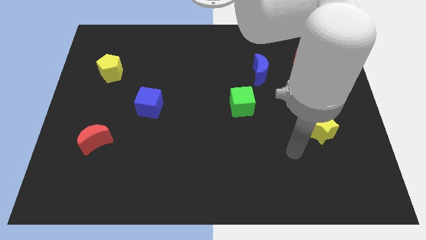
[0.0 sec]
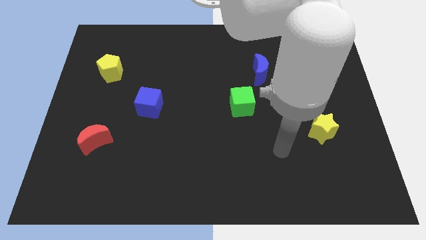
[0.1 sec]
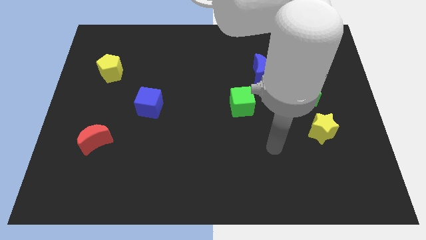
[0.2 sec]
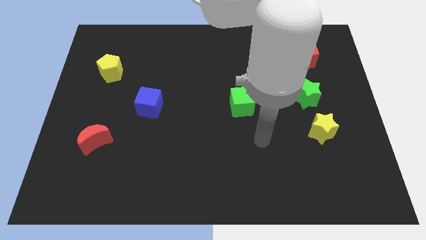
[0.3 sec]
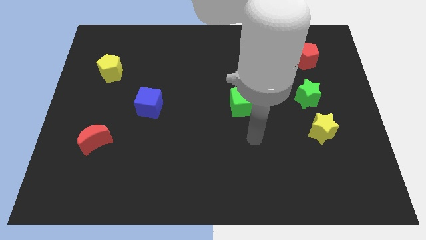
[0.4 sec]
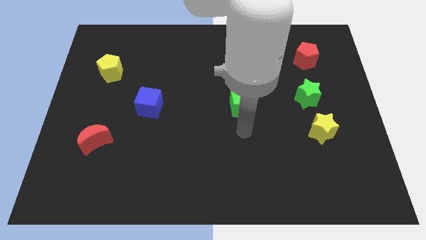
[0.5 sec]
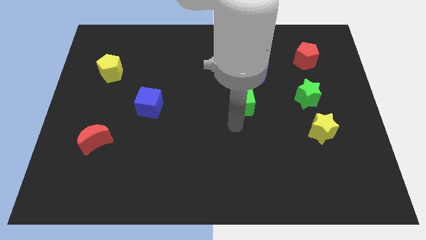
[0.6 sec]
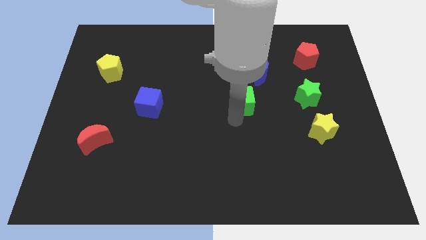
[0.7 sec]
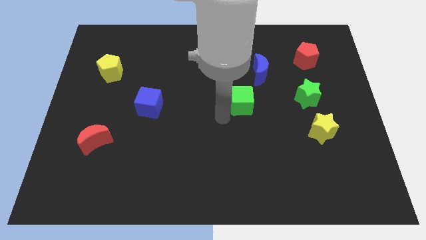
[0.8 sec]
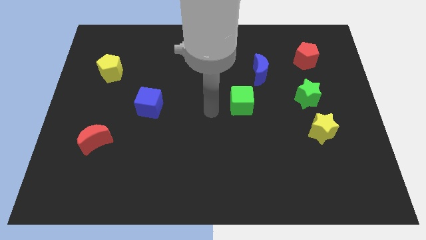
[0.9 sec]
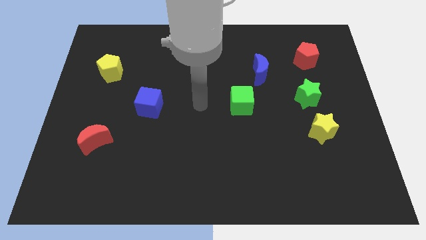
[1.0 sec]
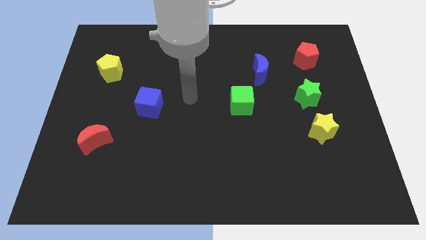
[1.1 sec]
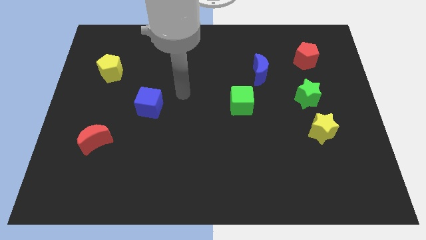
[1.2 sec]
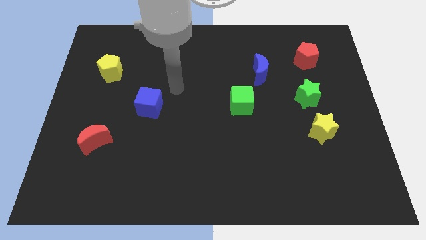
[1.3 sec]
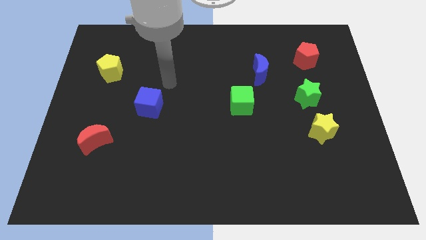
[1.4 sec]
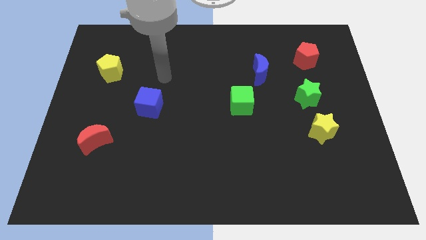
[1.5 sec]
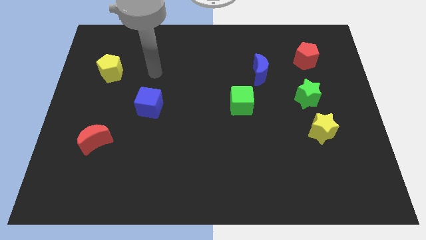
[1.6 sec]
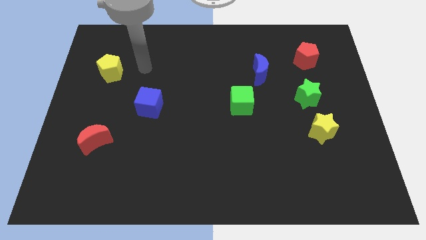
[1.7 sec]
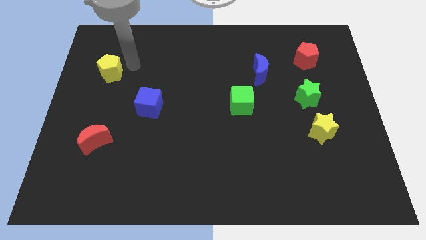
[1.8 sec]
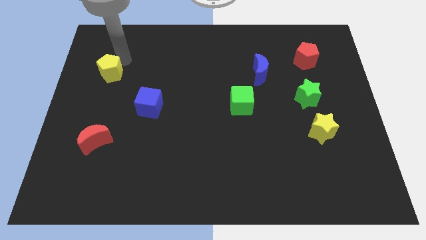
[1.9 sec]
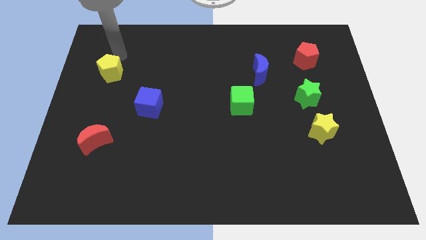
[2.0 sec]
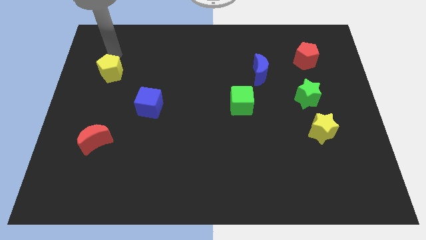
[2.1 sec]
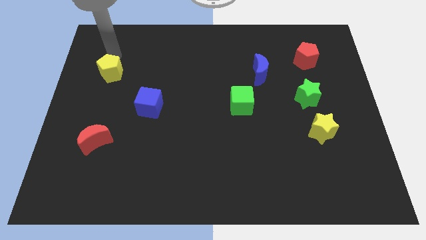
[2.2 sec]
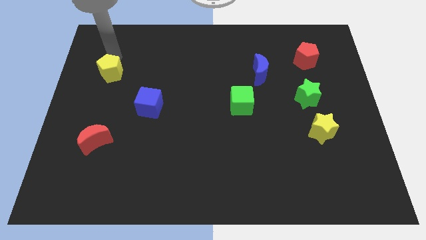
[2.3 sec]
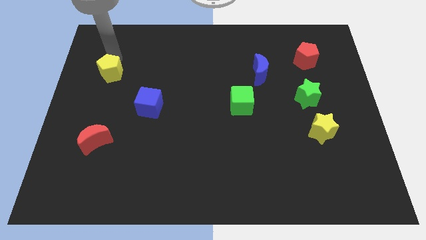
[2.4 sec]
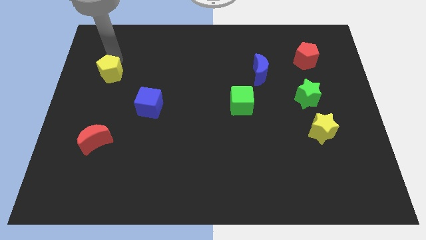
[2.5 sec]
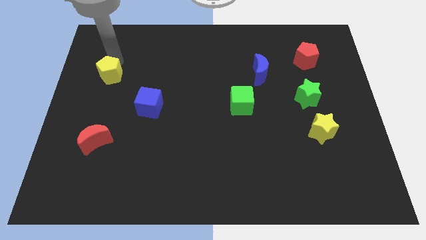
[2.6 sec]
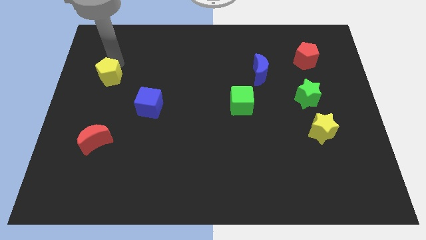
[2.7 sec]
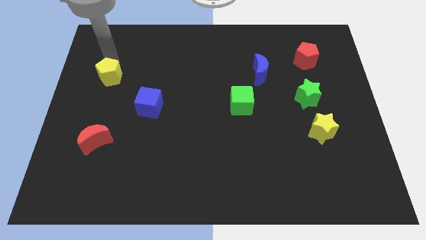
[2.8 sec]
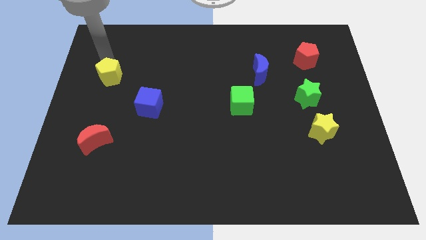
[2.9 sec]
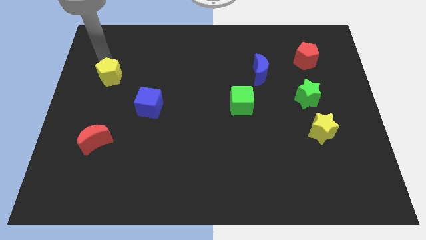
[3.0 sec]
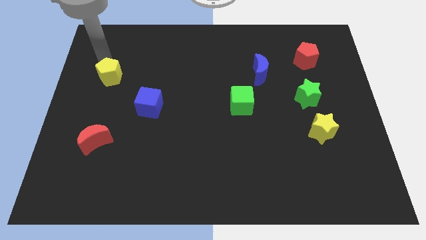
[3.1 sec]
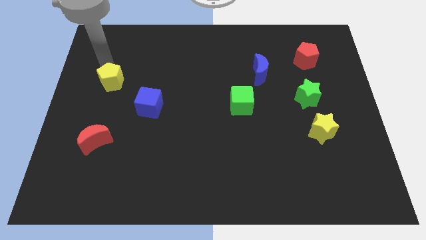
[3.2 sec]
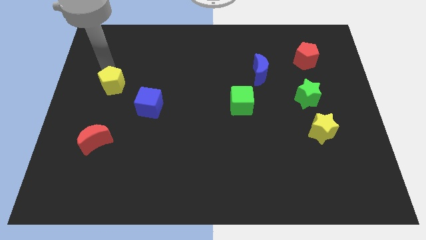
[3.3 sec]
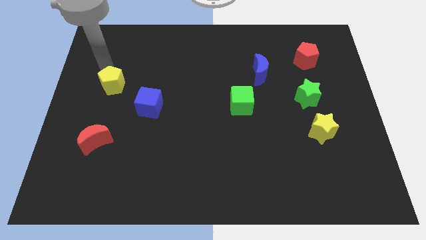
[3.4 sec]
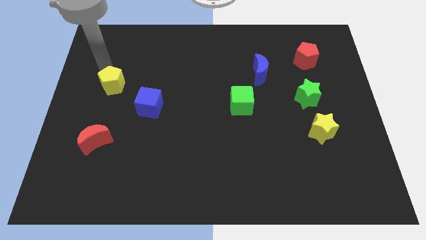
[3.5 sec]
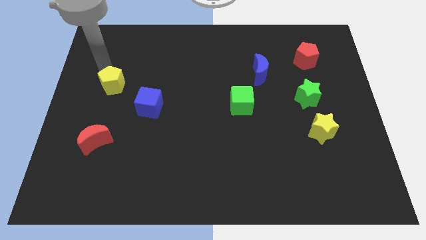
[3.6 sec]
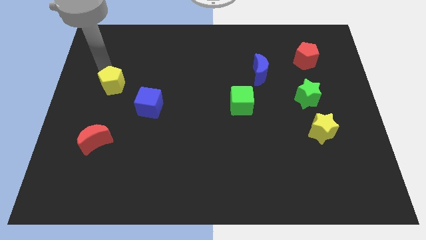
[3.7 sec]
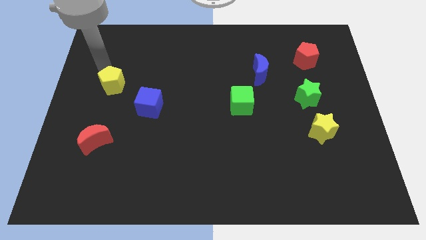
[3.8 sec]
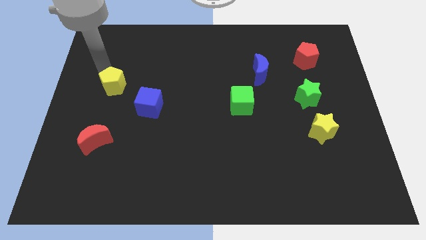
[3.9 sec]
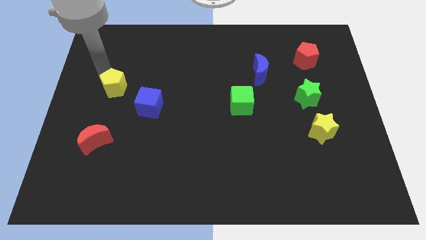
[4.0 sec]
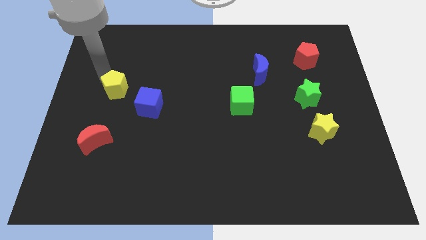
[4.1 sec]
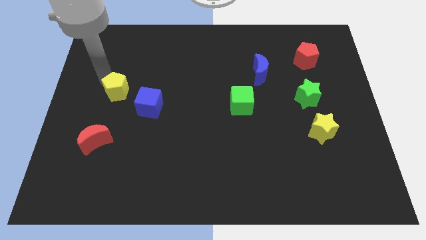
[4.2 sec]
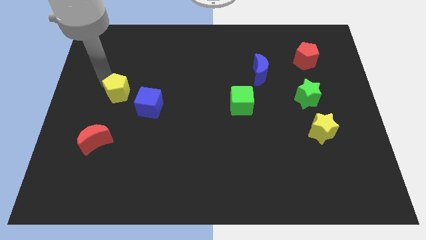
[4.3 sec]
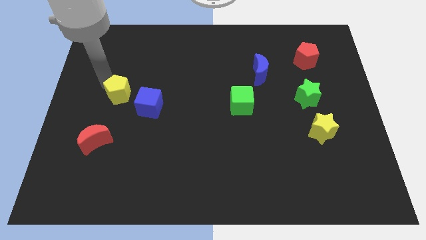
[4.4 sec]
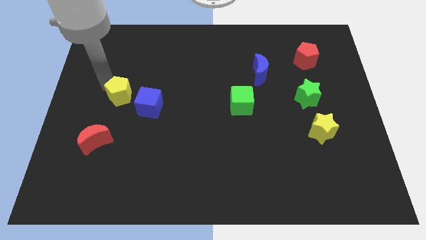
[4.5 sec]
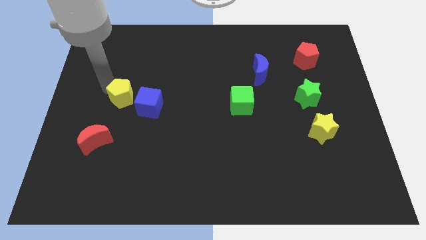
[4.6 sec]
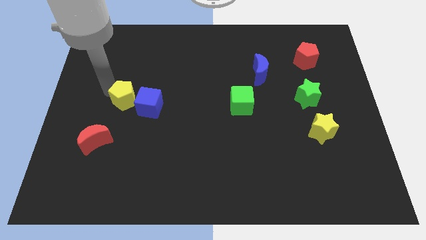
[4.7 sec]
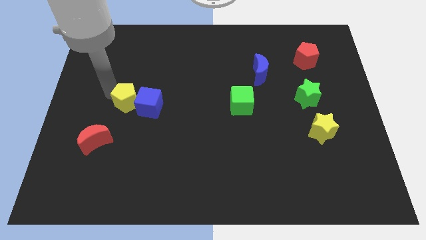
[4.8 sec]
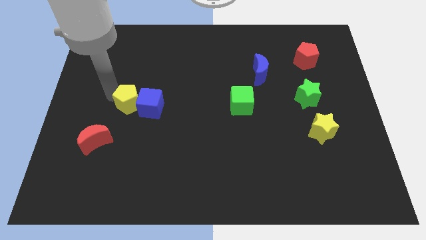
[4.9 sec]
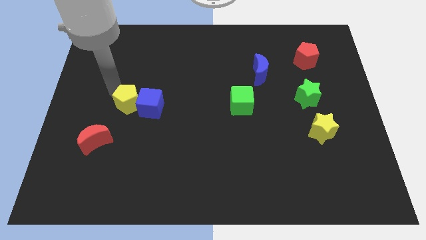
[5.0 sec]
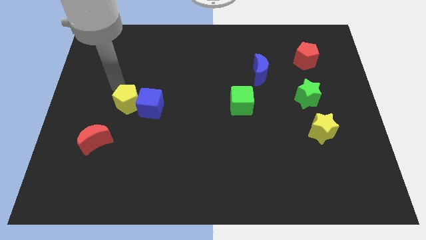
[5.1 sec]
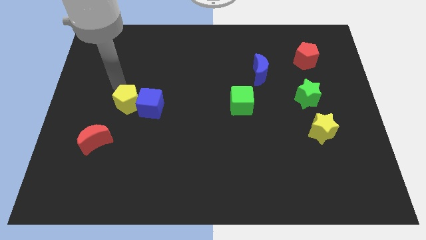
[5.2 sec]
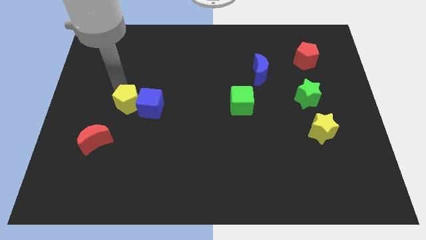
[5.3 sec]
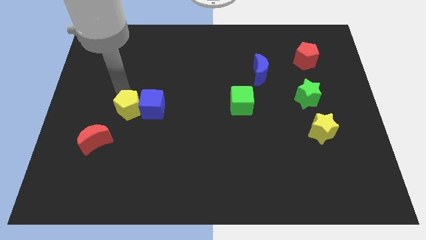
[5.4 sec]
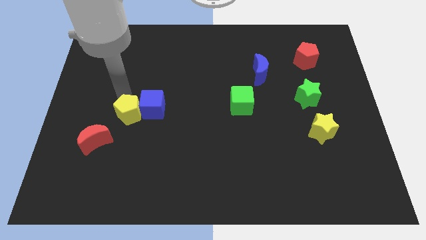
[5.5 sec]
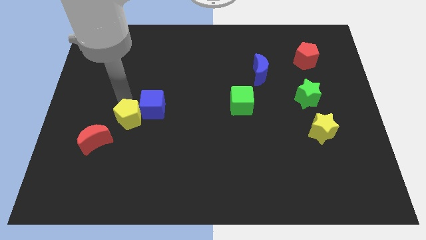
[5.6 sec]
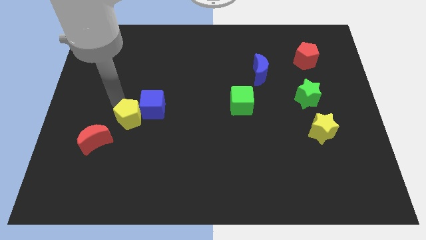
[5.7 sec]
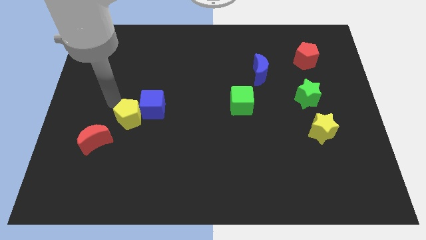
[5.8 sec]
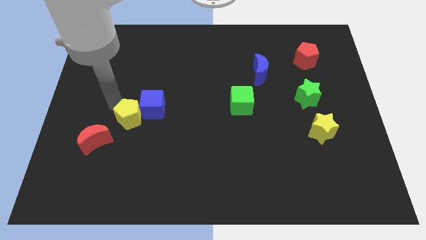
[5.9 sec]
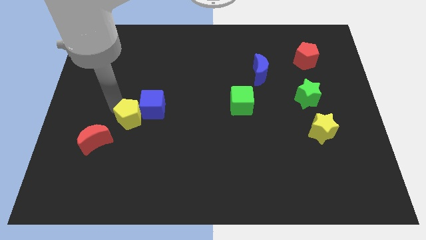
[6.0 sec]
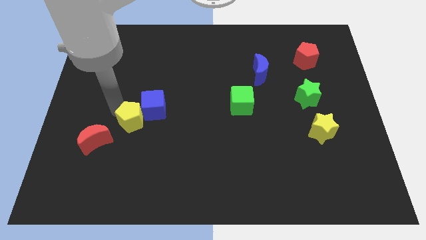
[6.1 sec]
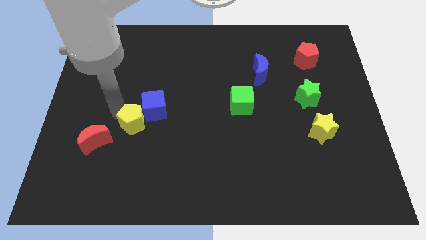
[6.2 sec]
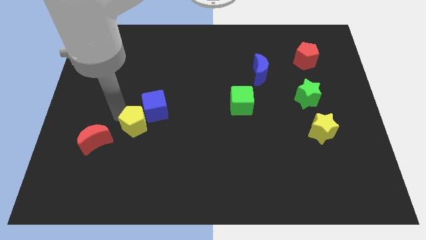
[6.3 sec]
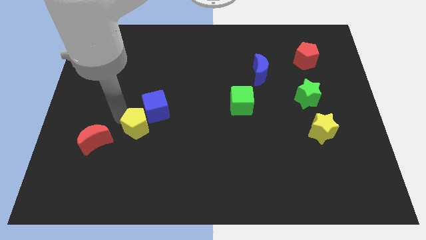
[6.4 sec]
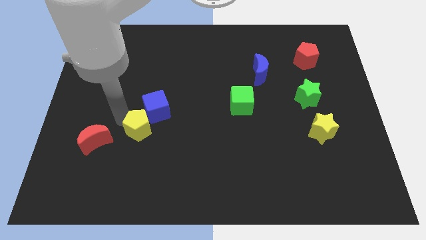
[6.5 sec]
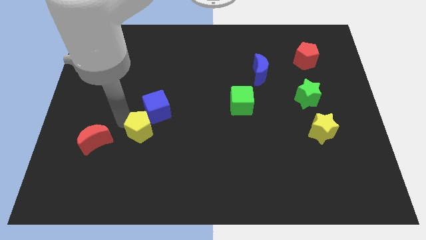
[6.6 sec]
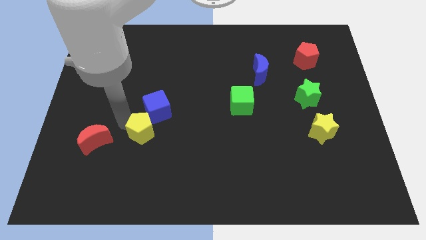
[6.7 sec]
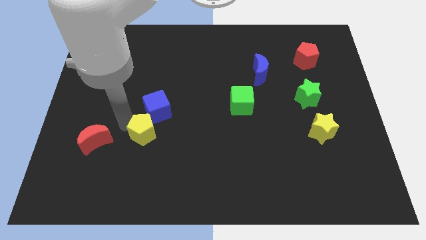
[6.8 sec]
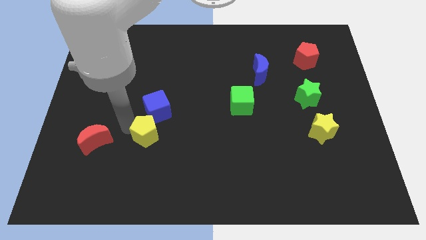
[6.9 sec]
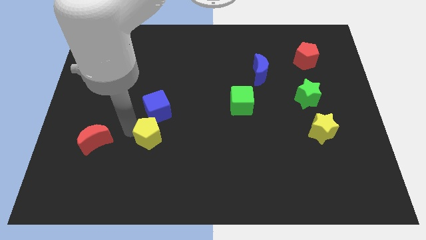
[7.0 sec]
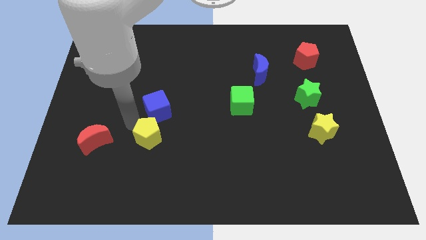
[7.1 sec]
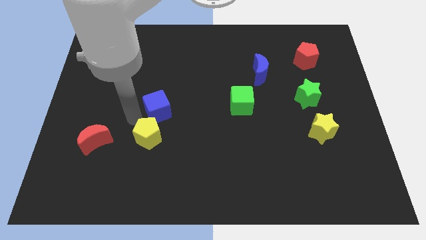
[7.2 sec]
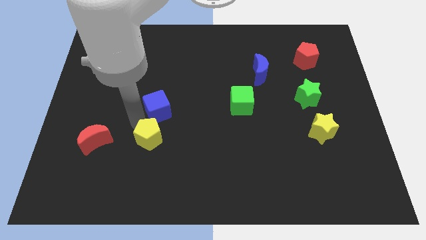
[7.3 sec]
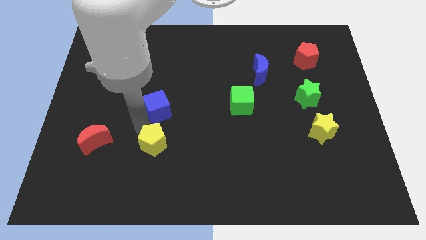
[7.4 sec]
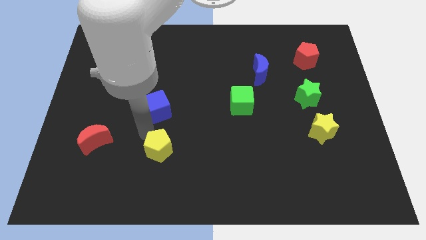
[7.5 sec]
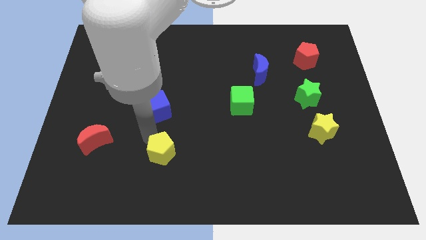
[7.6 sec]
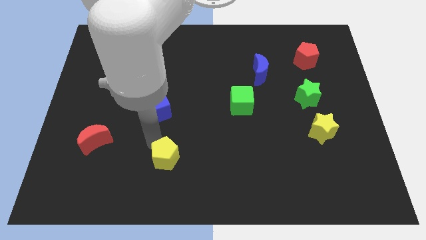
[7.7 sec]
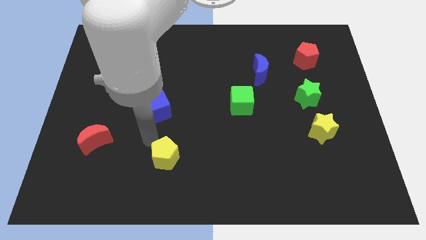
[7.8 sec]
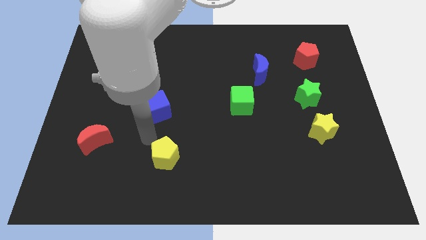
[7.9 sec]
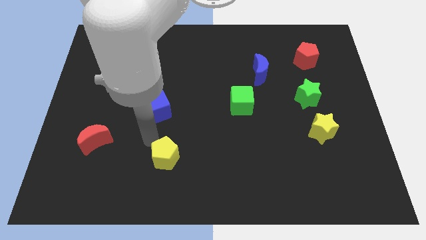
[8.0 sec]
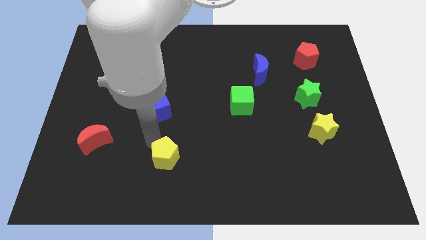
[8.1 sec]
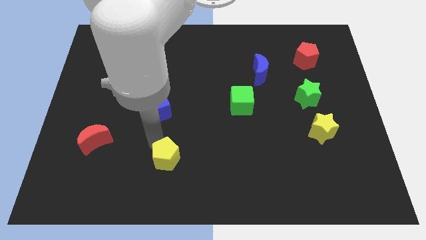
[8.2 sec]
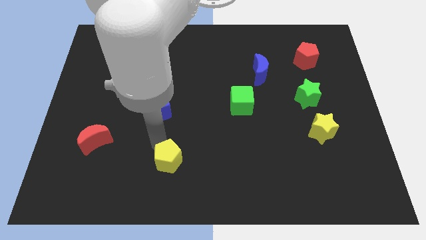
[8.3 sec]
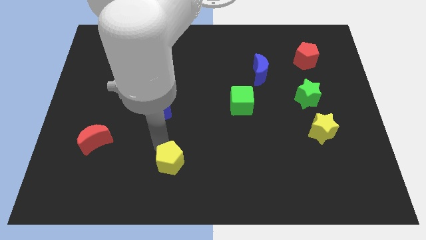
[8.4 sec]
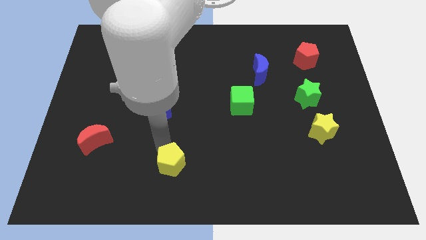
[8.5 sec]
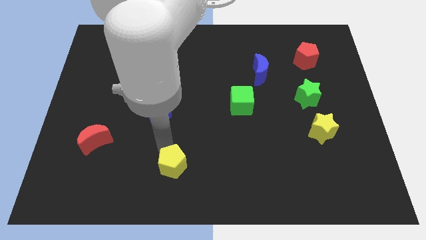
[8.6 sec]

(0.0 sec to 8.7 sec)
move the yellow pentagon to the bottom side
